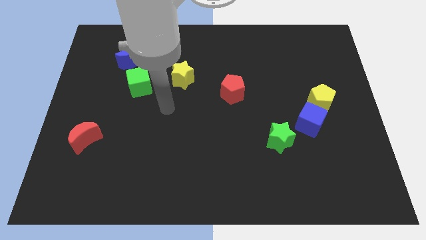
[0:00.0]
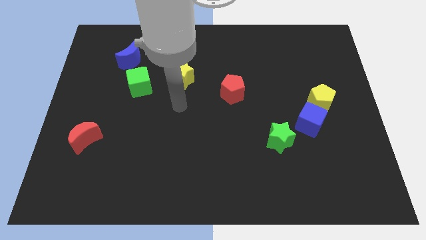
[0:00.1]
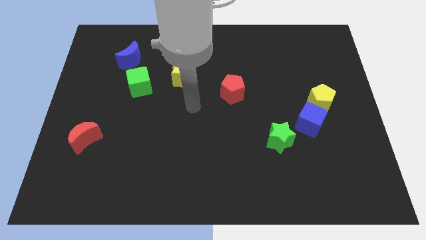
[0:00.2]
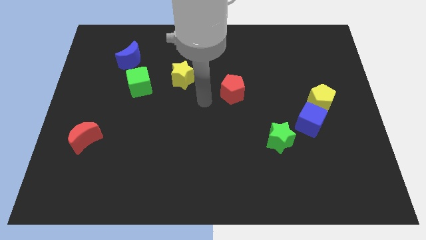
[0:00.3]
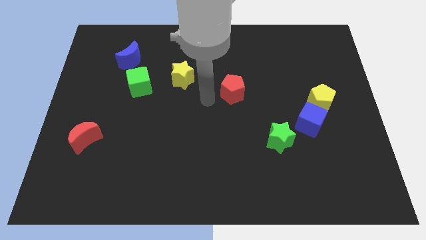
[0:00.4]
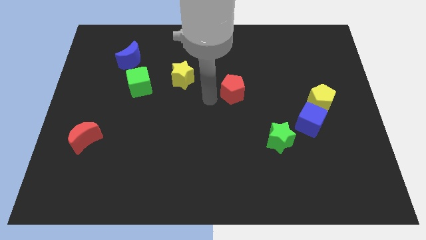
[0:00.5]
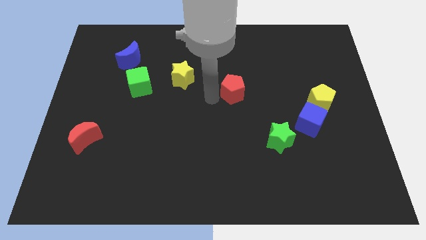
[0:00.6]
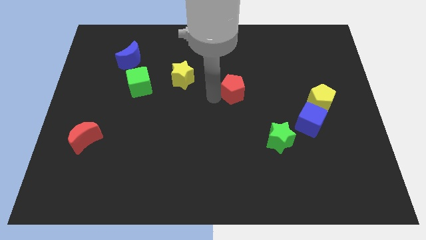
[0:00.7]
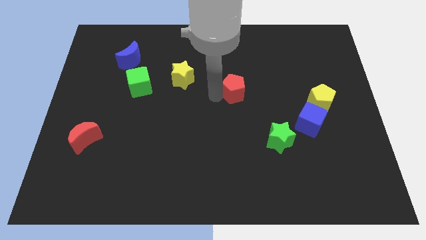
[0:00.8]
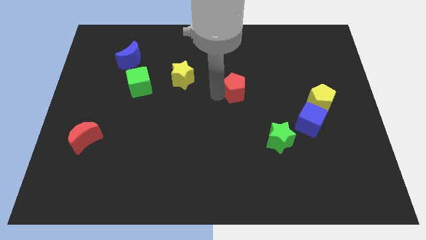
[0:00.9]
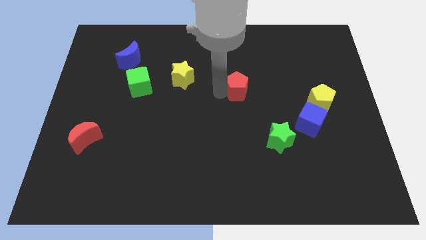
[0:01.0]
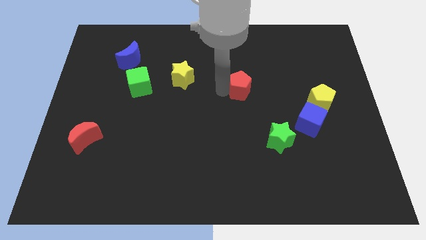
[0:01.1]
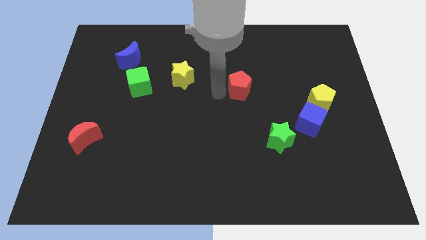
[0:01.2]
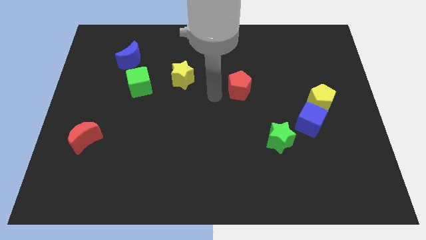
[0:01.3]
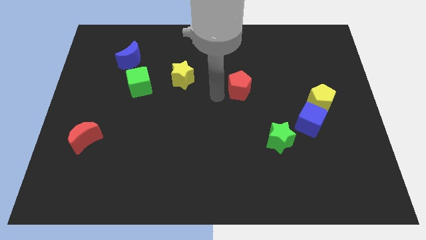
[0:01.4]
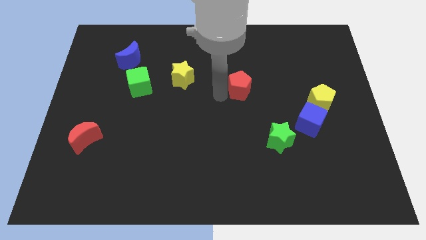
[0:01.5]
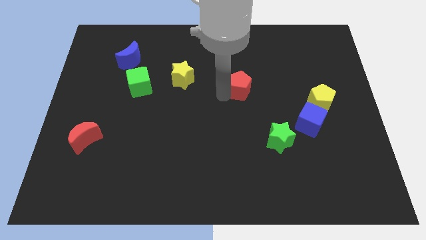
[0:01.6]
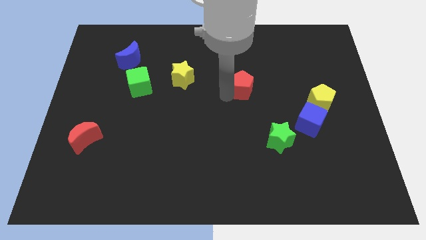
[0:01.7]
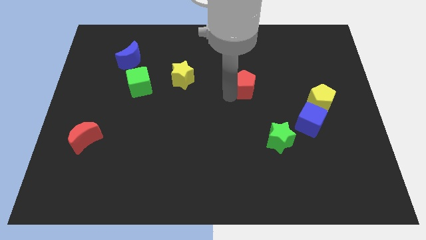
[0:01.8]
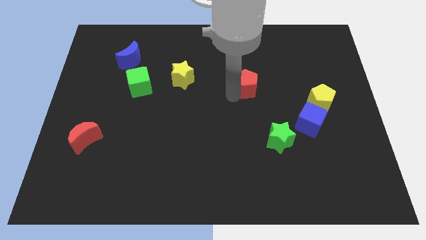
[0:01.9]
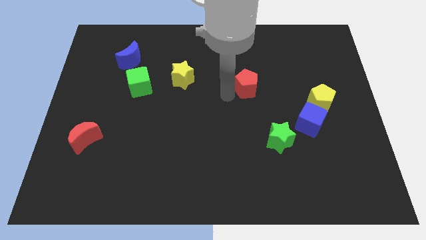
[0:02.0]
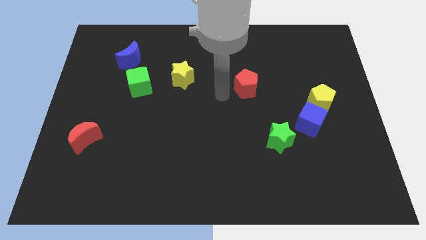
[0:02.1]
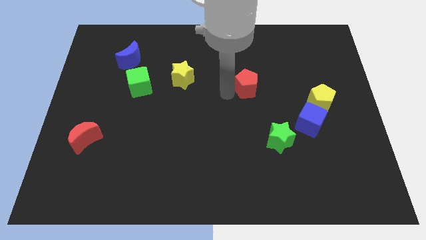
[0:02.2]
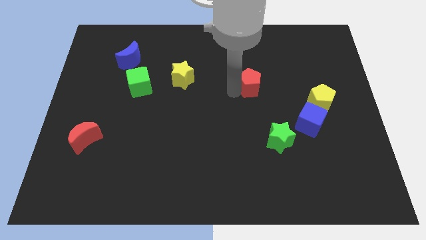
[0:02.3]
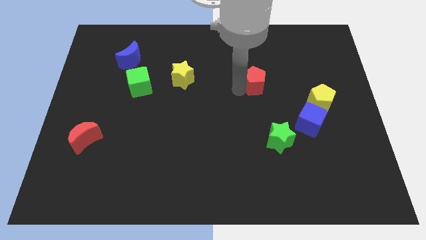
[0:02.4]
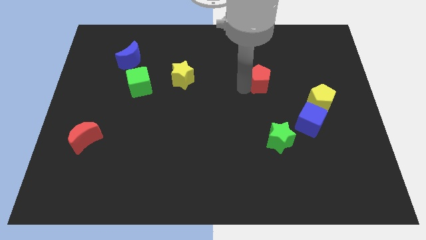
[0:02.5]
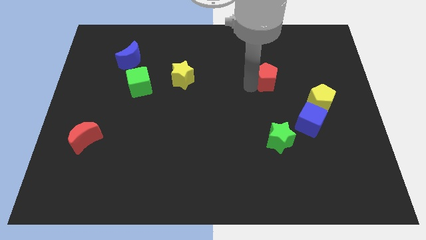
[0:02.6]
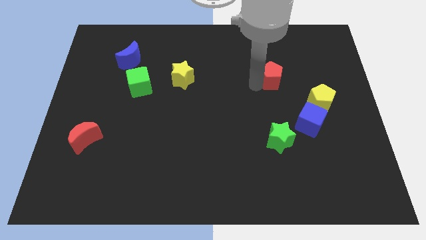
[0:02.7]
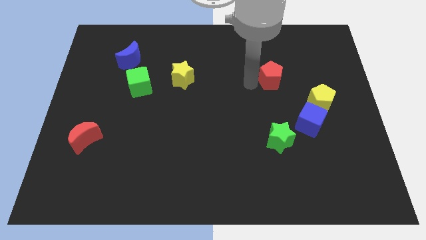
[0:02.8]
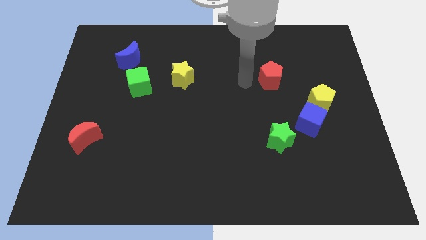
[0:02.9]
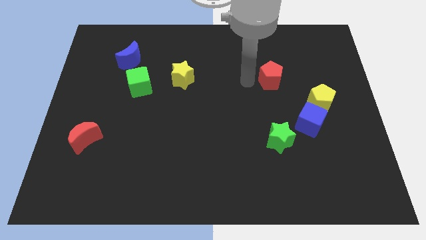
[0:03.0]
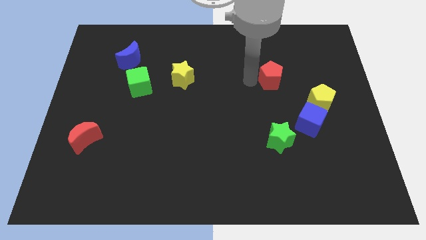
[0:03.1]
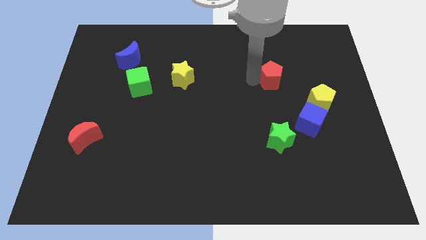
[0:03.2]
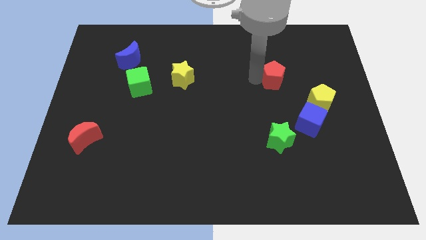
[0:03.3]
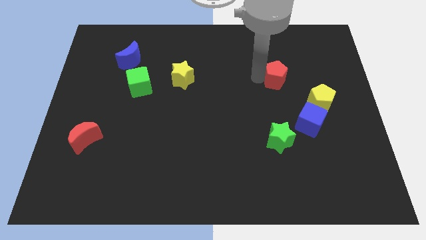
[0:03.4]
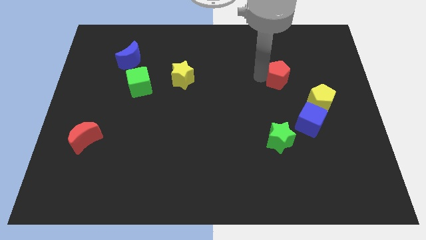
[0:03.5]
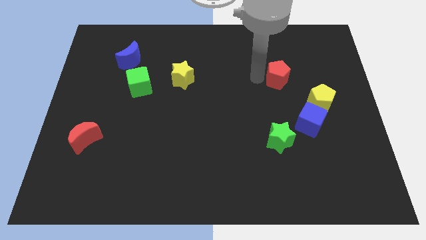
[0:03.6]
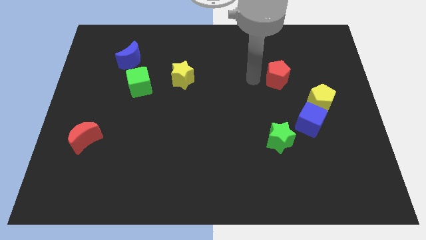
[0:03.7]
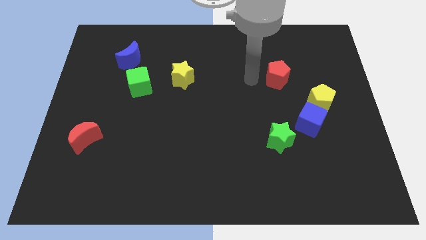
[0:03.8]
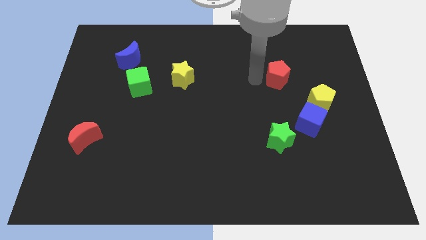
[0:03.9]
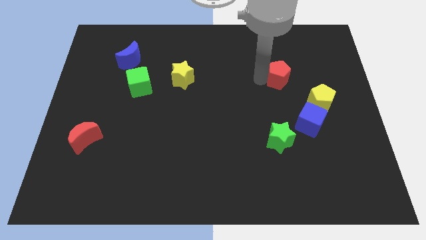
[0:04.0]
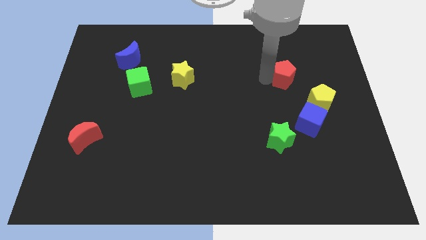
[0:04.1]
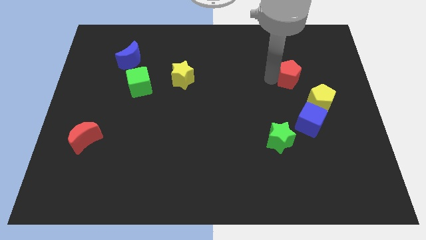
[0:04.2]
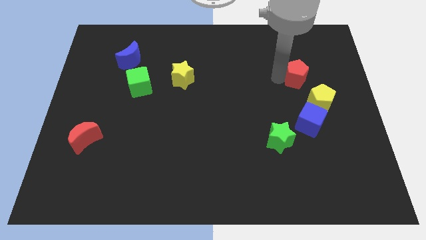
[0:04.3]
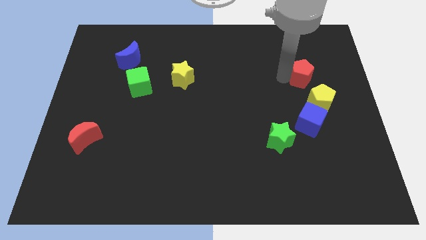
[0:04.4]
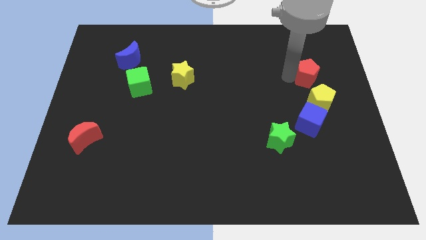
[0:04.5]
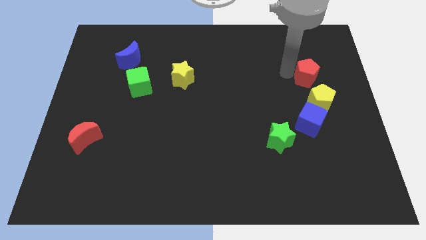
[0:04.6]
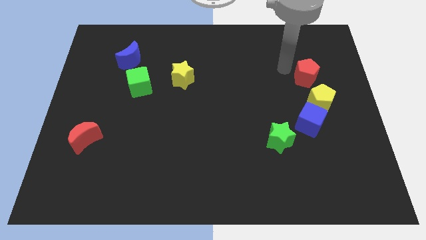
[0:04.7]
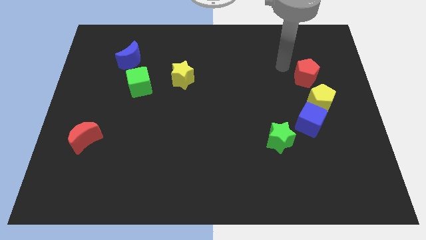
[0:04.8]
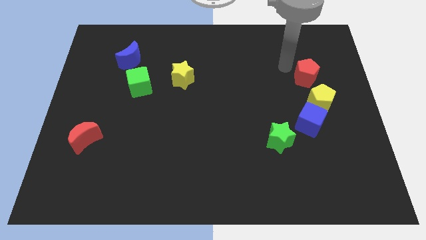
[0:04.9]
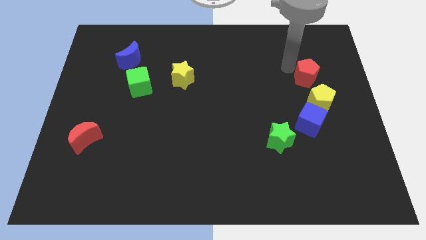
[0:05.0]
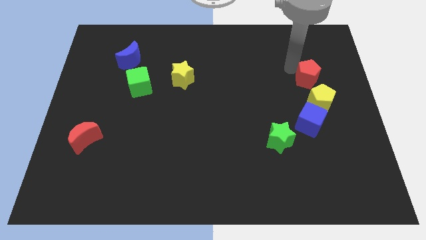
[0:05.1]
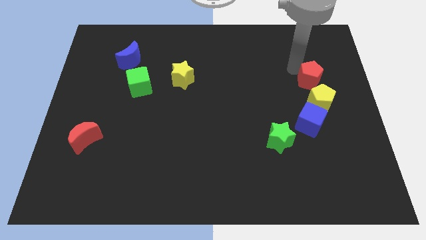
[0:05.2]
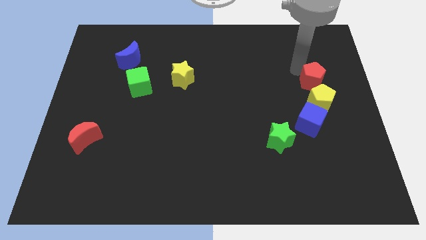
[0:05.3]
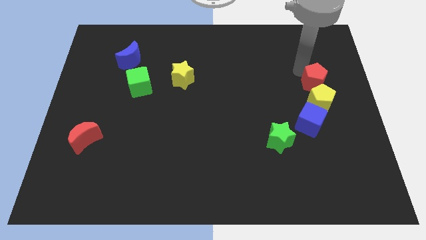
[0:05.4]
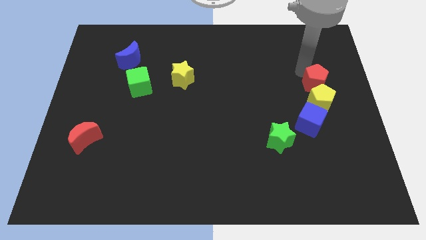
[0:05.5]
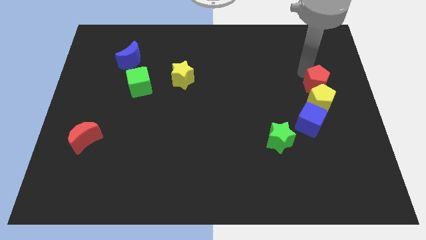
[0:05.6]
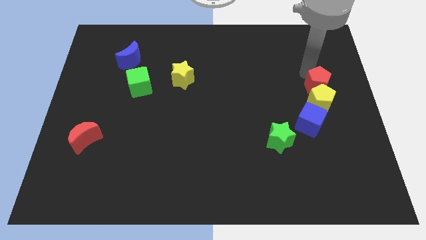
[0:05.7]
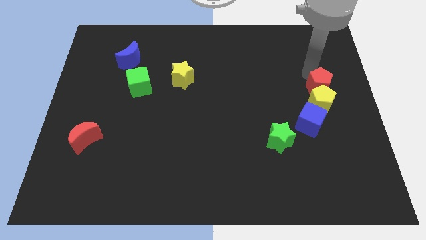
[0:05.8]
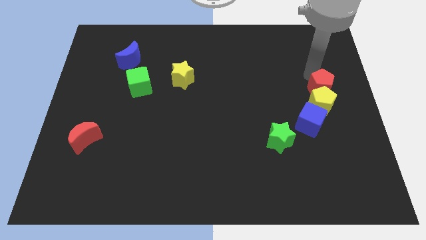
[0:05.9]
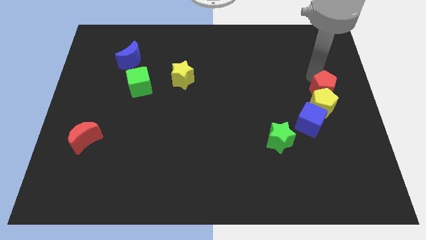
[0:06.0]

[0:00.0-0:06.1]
slide the red pentagon to the top right of the blue cube

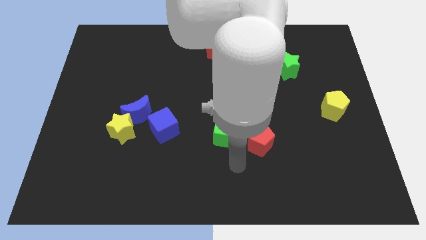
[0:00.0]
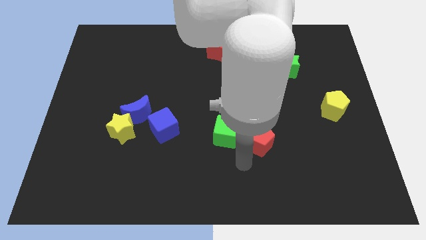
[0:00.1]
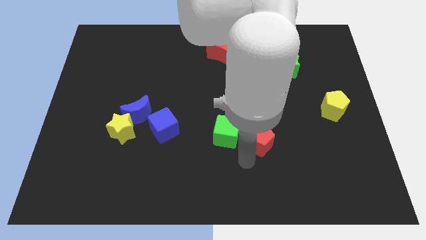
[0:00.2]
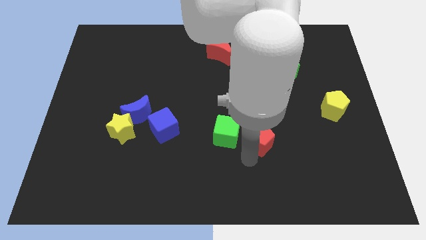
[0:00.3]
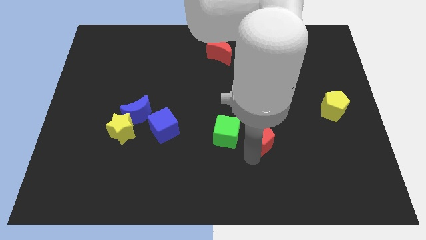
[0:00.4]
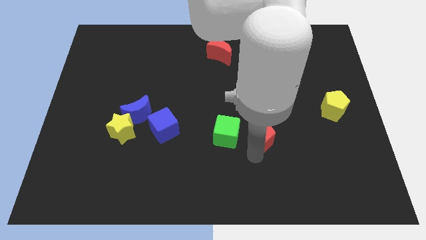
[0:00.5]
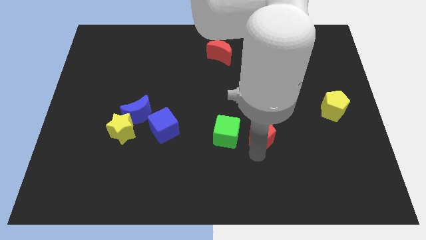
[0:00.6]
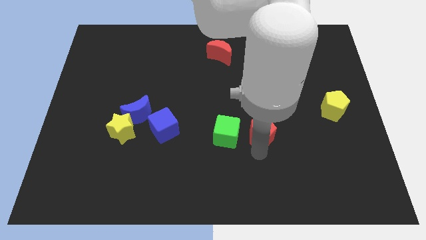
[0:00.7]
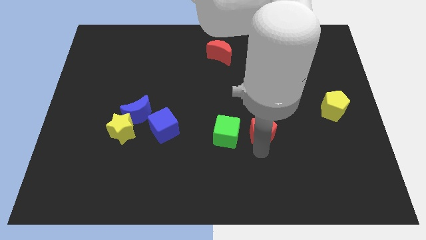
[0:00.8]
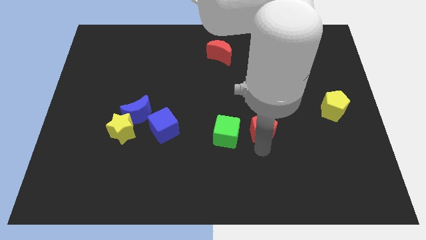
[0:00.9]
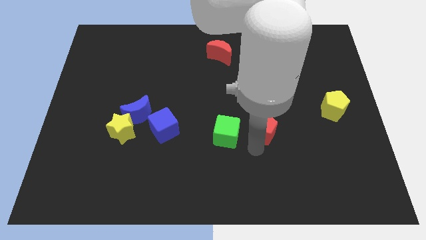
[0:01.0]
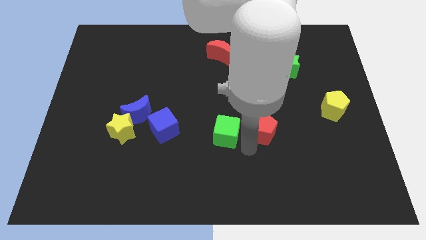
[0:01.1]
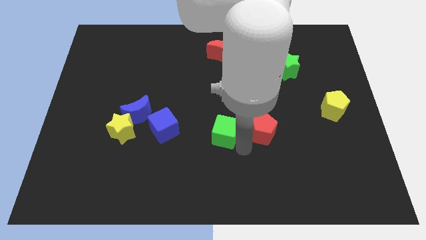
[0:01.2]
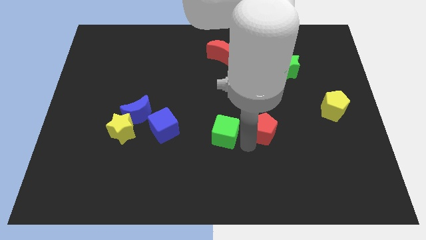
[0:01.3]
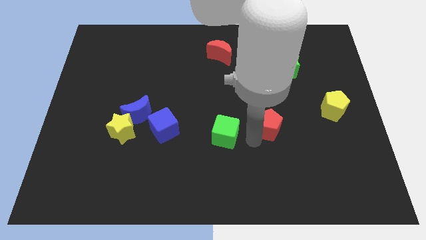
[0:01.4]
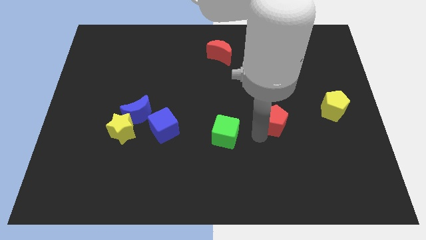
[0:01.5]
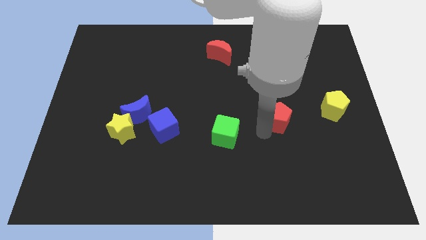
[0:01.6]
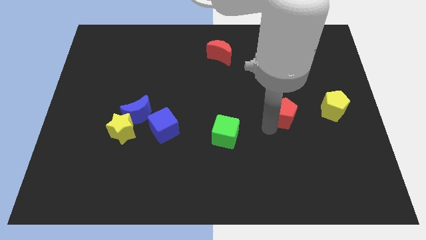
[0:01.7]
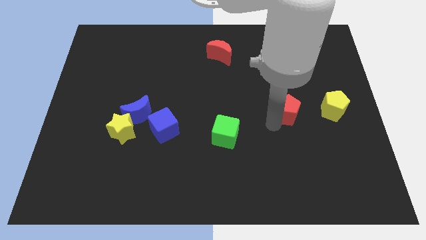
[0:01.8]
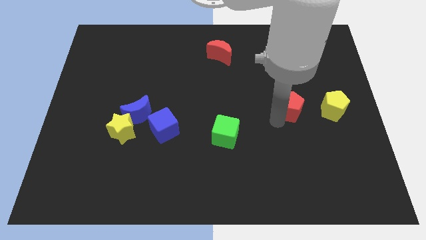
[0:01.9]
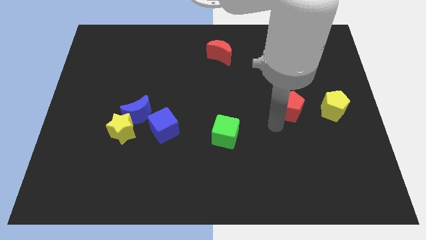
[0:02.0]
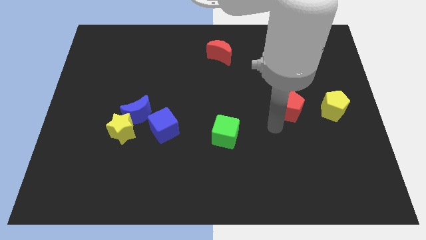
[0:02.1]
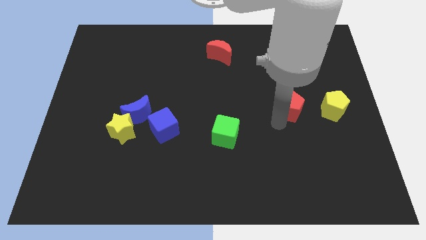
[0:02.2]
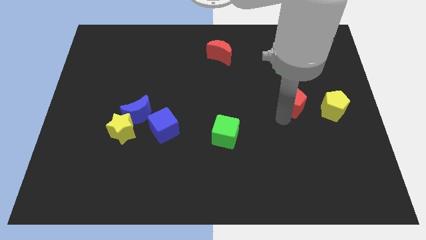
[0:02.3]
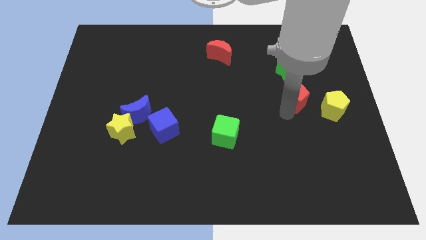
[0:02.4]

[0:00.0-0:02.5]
push the red pentagon to the top left side of the yellow pentagon
